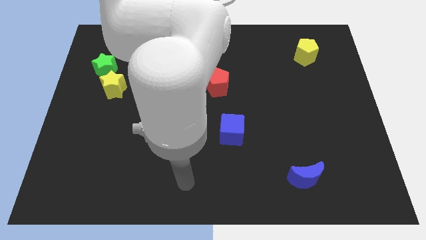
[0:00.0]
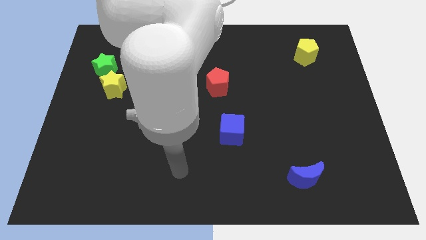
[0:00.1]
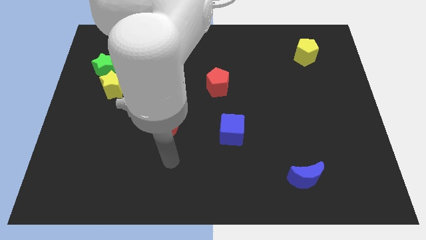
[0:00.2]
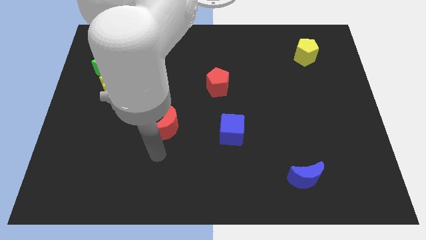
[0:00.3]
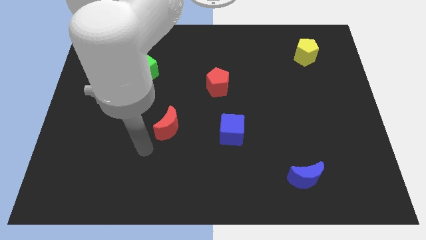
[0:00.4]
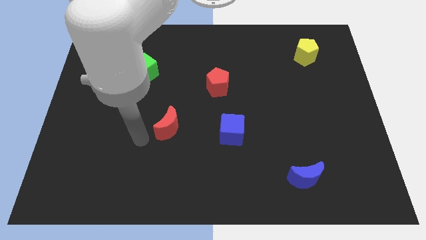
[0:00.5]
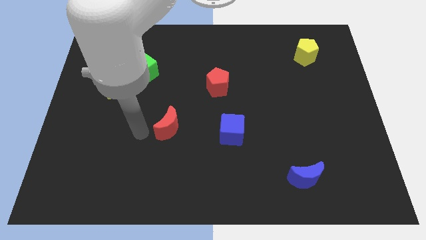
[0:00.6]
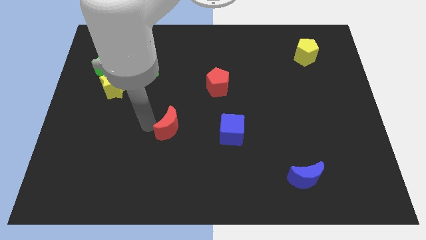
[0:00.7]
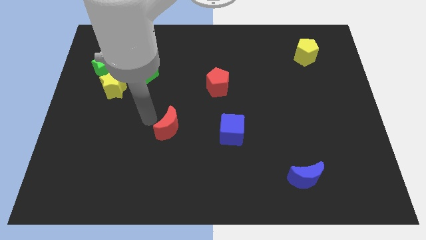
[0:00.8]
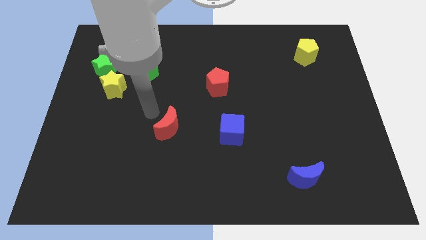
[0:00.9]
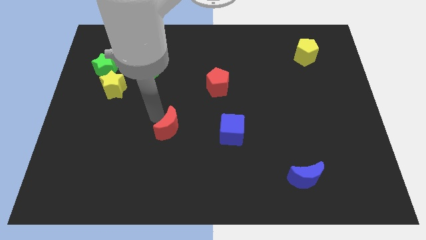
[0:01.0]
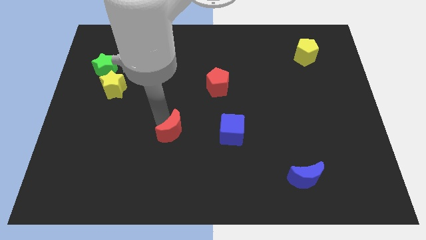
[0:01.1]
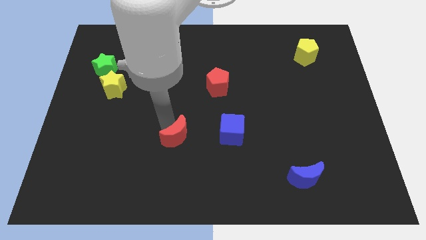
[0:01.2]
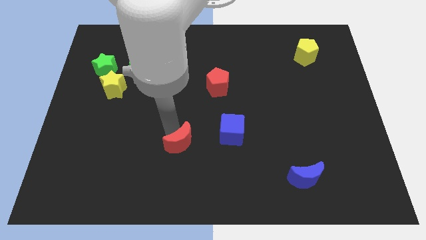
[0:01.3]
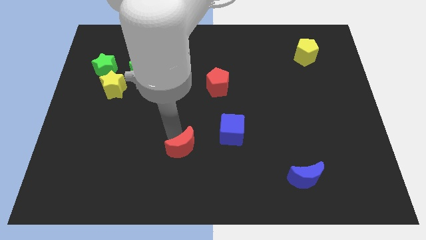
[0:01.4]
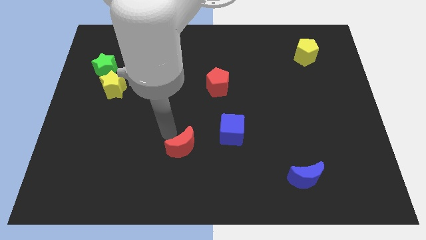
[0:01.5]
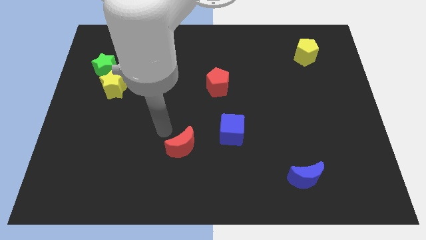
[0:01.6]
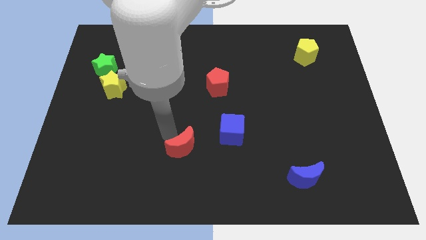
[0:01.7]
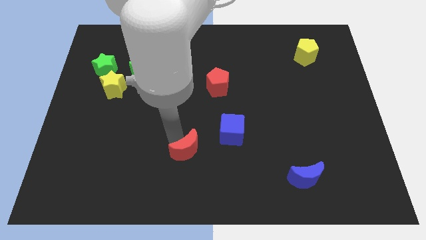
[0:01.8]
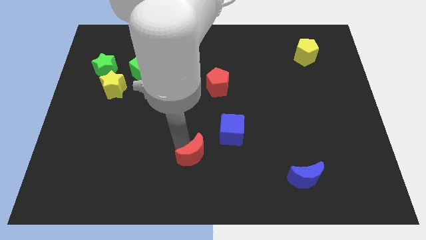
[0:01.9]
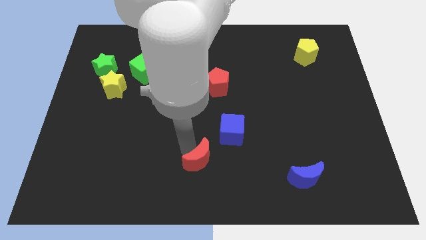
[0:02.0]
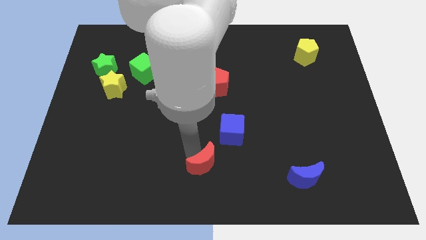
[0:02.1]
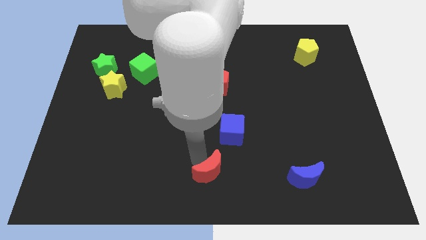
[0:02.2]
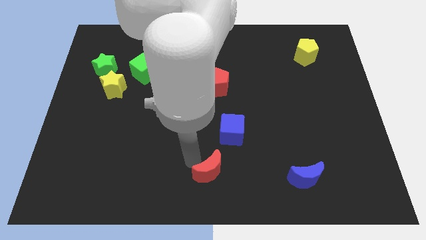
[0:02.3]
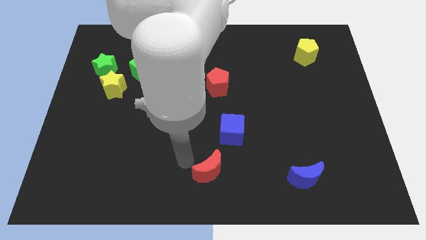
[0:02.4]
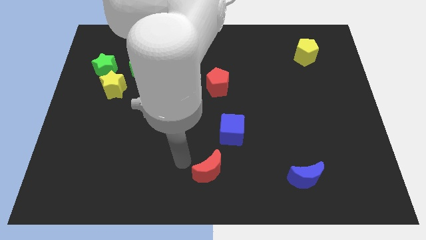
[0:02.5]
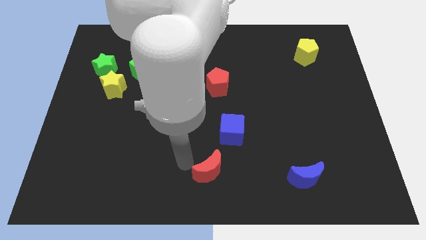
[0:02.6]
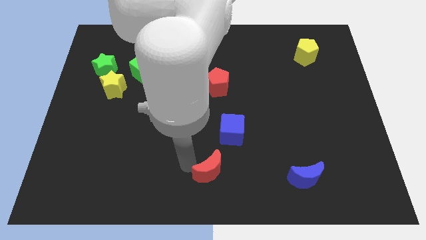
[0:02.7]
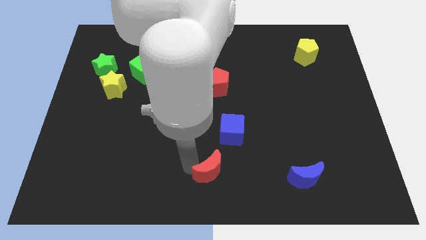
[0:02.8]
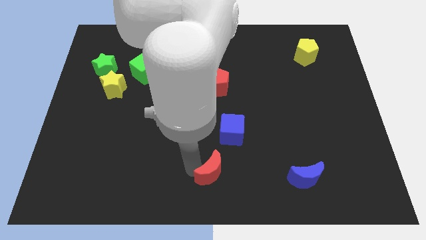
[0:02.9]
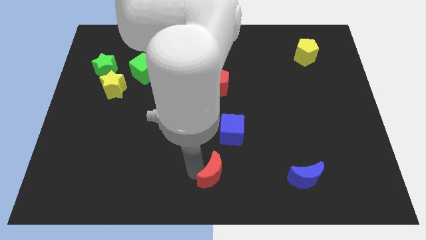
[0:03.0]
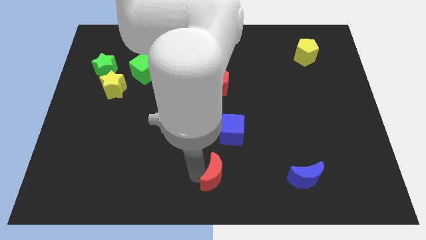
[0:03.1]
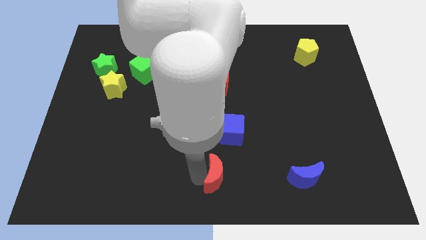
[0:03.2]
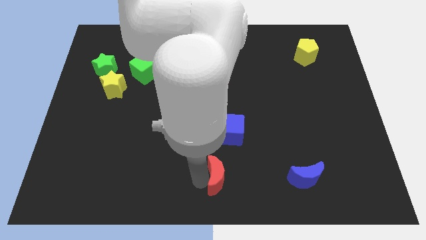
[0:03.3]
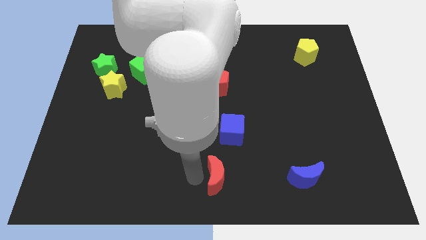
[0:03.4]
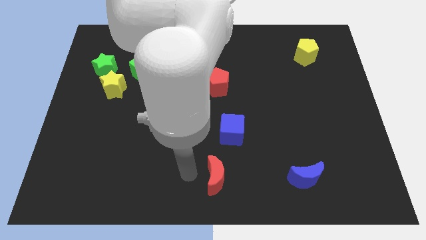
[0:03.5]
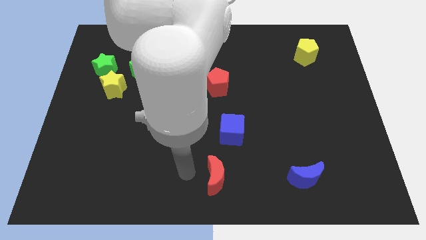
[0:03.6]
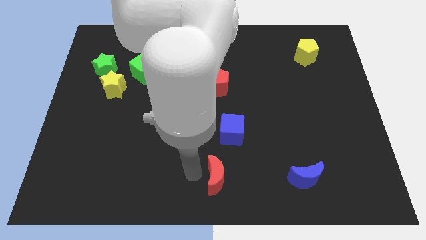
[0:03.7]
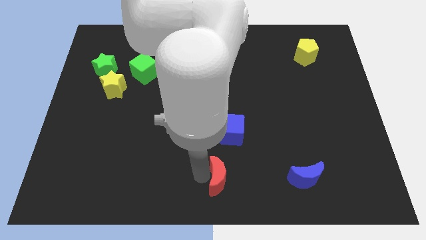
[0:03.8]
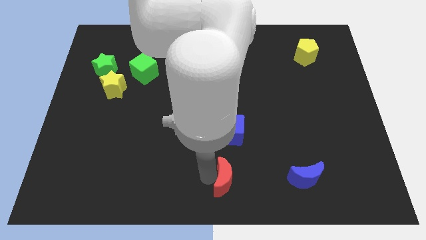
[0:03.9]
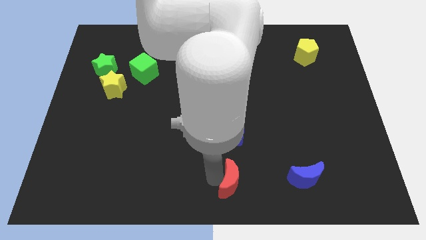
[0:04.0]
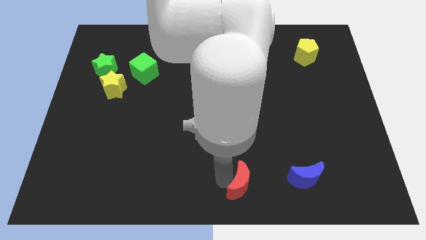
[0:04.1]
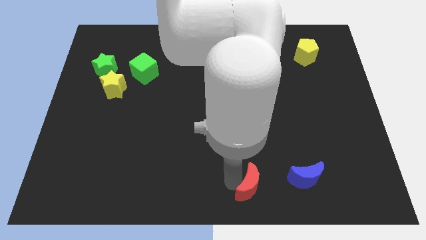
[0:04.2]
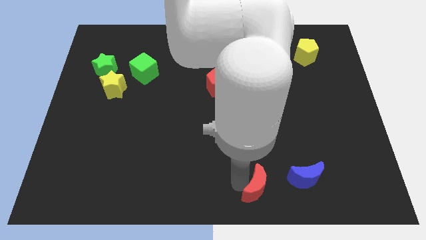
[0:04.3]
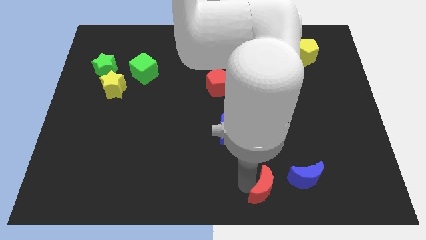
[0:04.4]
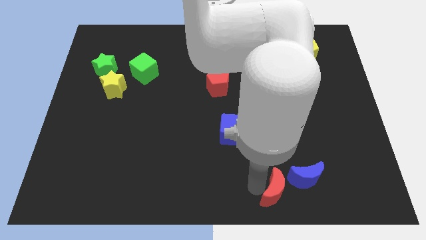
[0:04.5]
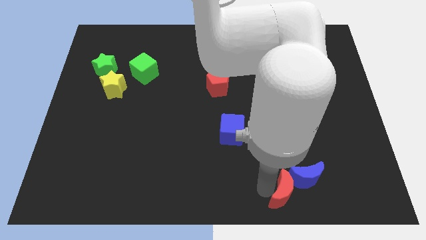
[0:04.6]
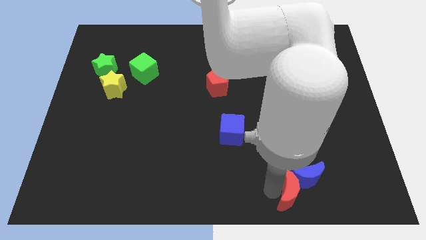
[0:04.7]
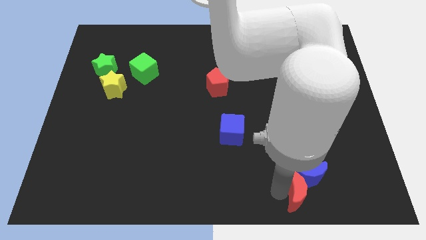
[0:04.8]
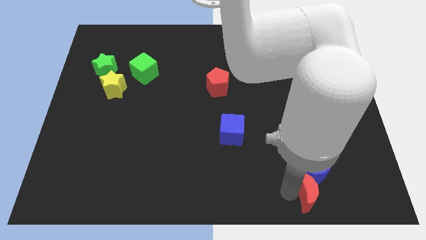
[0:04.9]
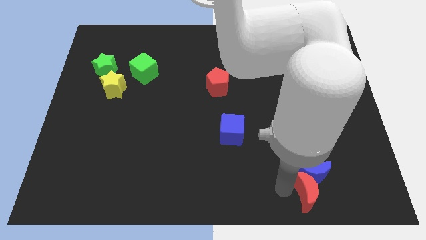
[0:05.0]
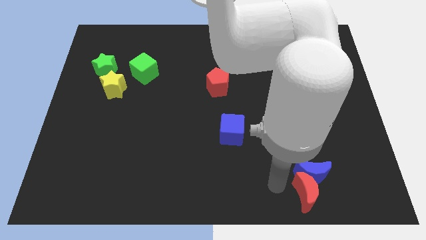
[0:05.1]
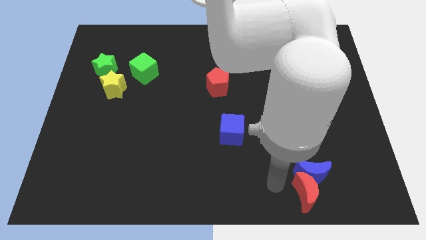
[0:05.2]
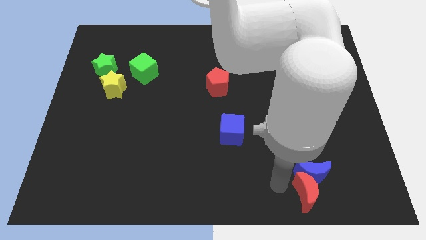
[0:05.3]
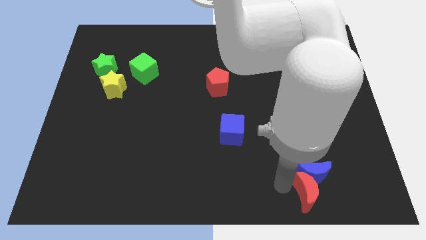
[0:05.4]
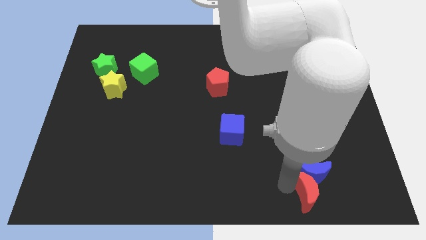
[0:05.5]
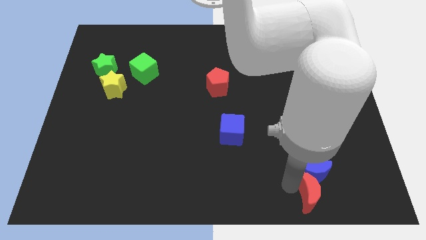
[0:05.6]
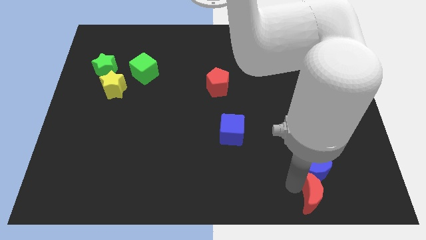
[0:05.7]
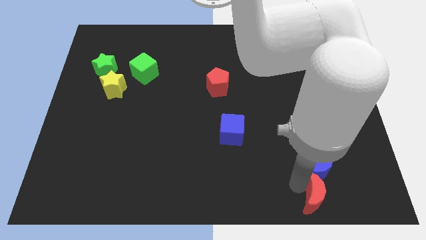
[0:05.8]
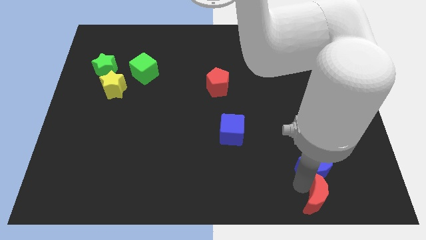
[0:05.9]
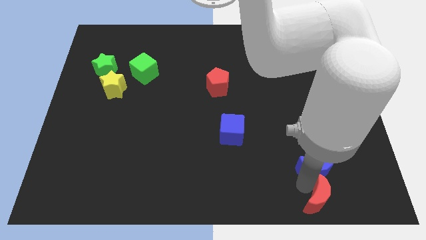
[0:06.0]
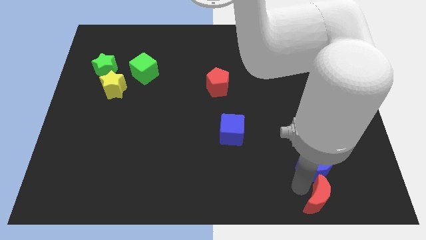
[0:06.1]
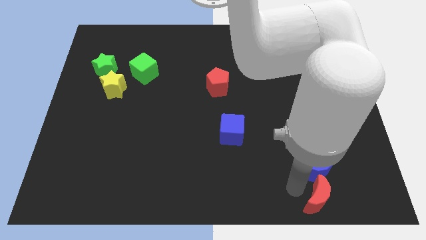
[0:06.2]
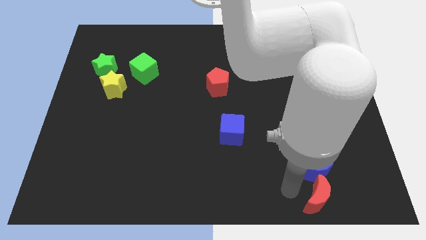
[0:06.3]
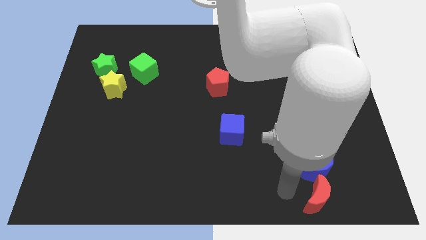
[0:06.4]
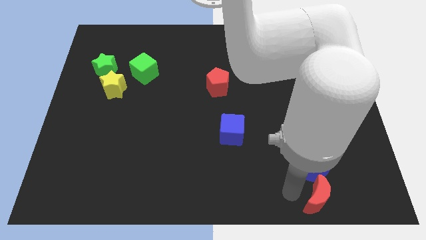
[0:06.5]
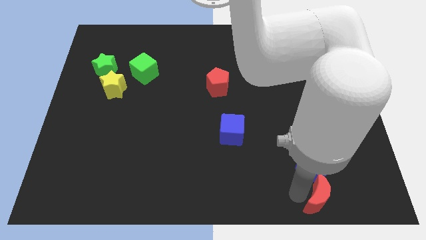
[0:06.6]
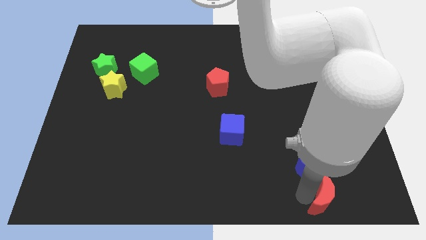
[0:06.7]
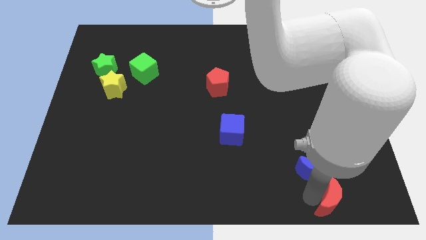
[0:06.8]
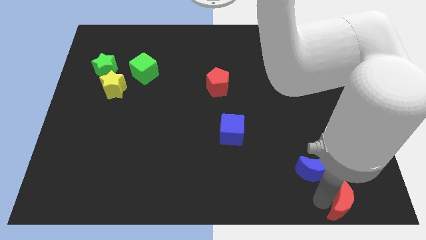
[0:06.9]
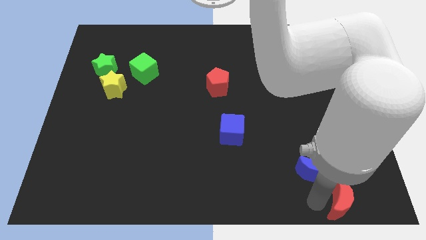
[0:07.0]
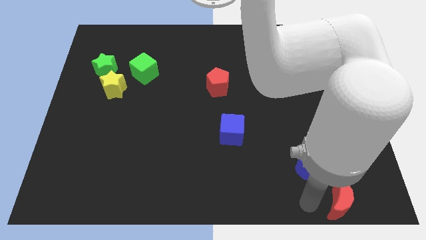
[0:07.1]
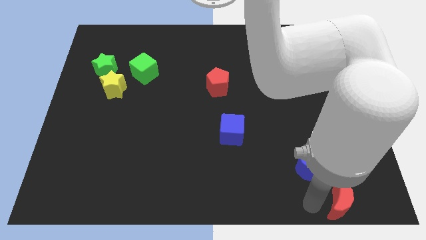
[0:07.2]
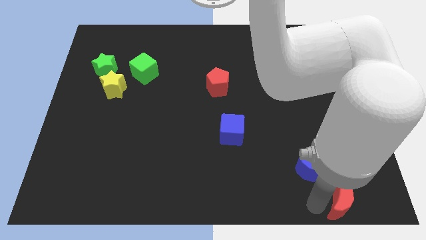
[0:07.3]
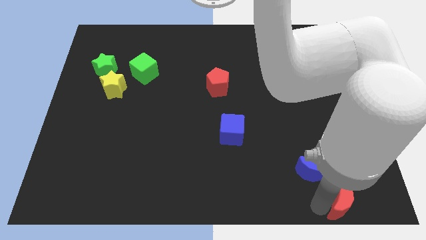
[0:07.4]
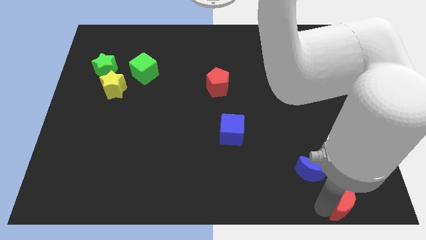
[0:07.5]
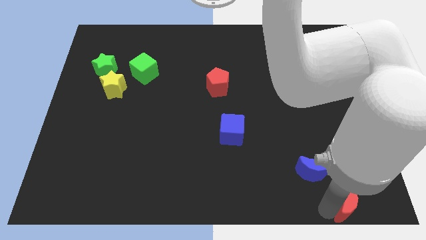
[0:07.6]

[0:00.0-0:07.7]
put the red moon to the lower right corner
